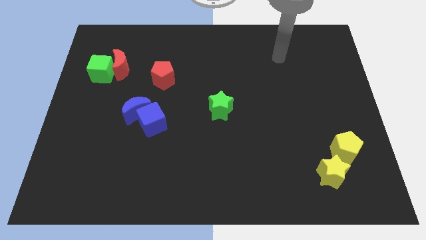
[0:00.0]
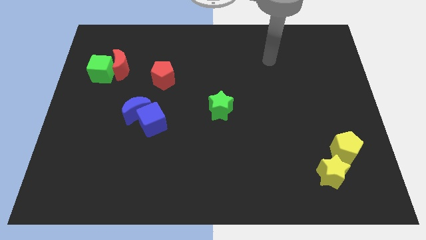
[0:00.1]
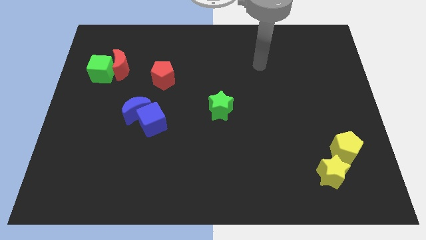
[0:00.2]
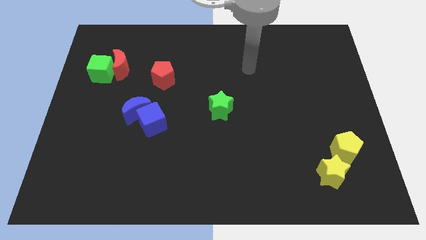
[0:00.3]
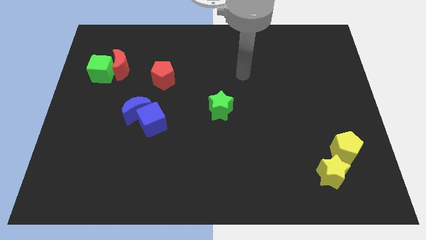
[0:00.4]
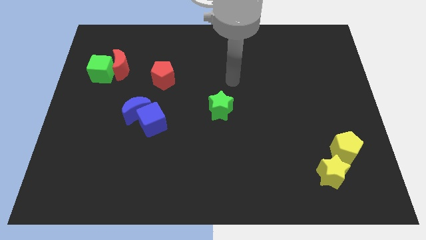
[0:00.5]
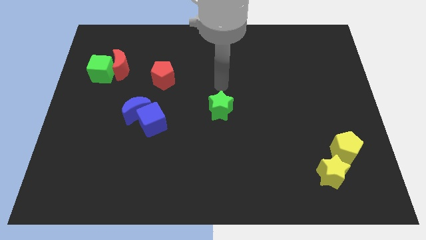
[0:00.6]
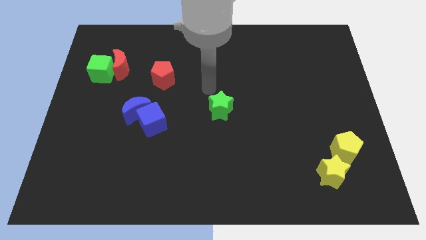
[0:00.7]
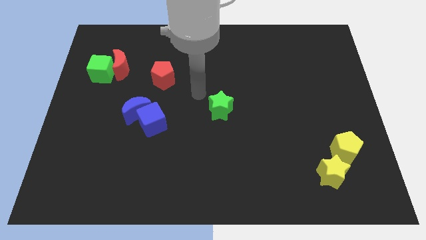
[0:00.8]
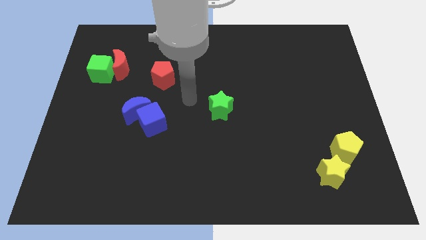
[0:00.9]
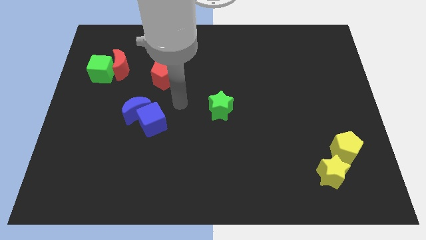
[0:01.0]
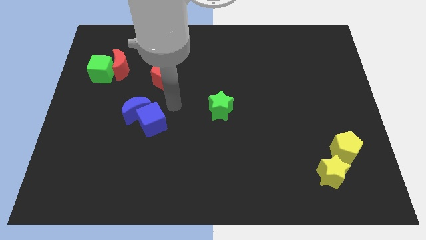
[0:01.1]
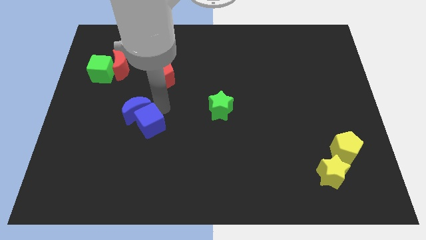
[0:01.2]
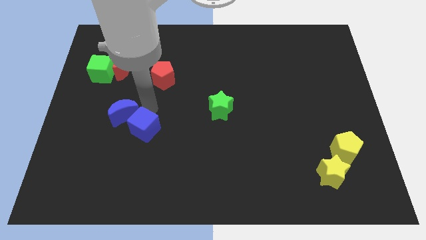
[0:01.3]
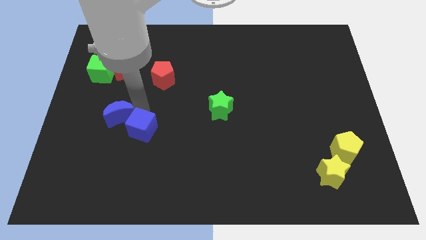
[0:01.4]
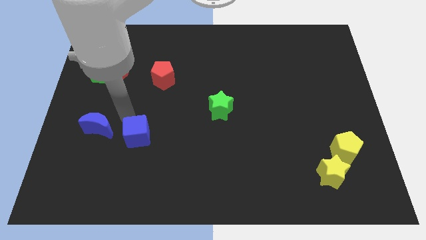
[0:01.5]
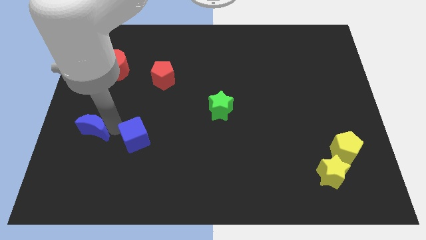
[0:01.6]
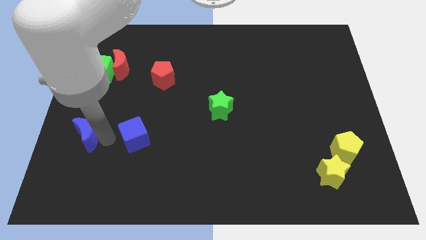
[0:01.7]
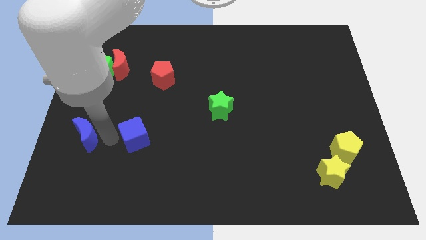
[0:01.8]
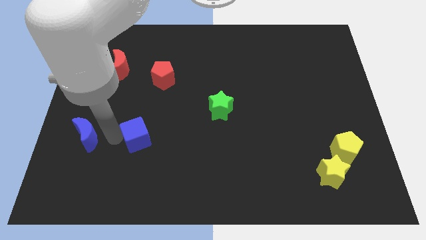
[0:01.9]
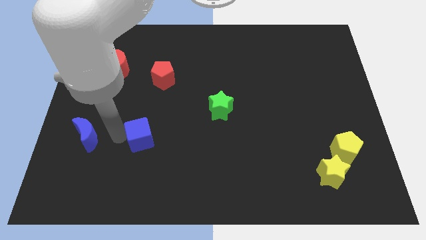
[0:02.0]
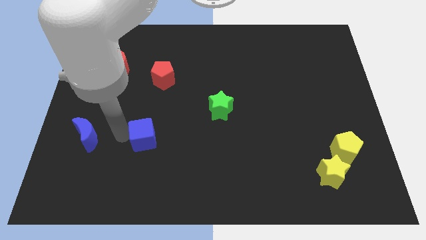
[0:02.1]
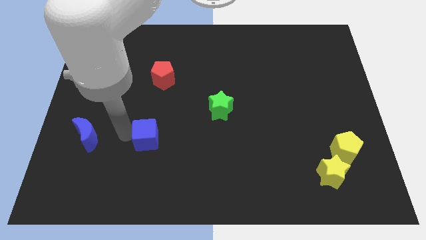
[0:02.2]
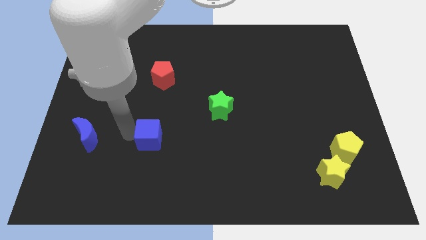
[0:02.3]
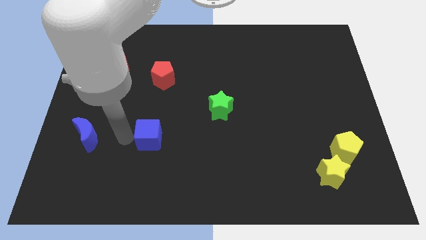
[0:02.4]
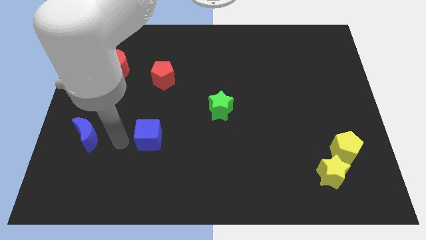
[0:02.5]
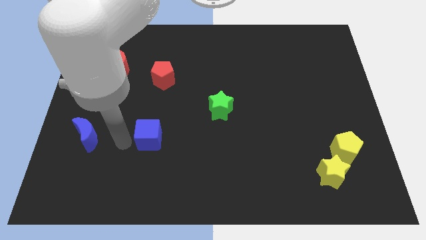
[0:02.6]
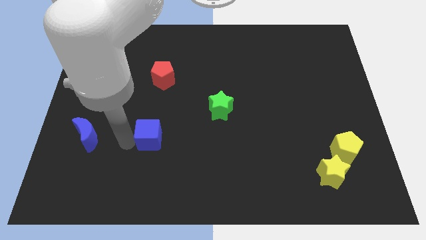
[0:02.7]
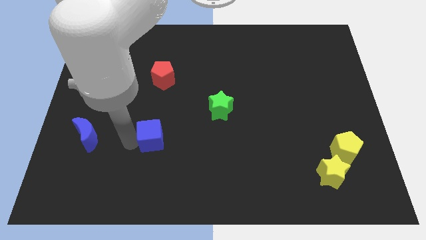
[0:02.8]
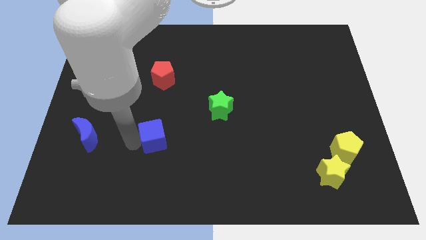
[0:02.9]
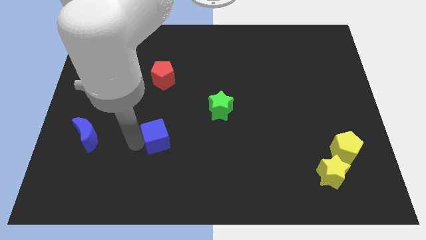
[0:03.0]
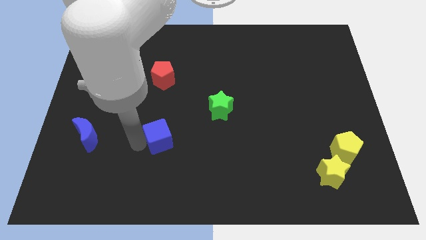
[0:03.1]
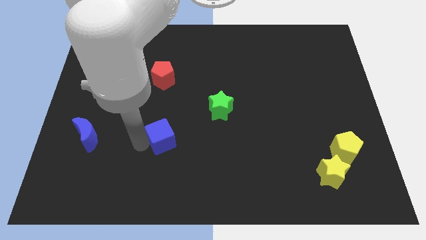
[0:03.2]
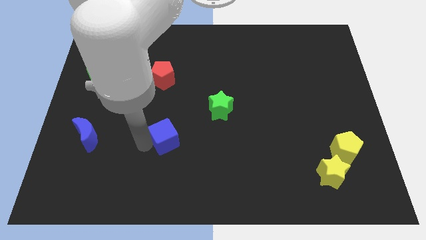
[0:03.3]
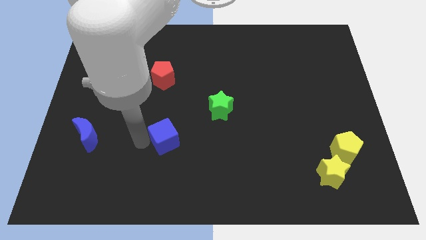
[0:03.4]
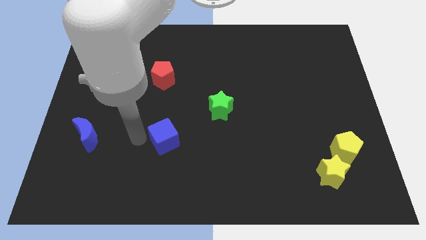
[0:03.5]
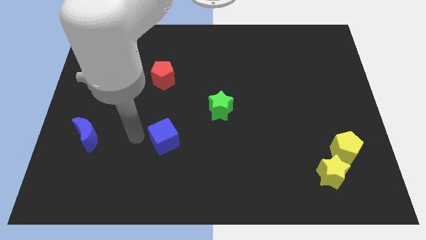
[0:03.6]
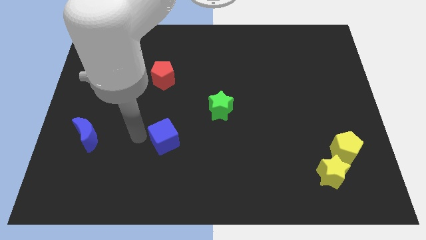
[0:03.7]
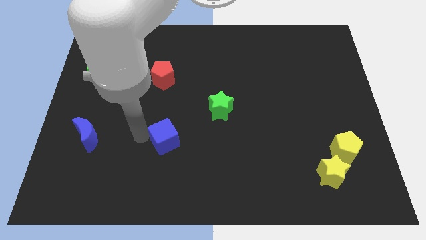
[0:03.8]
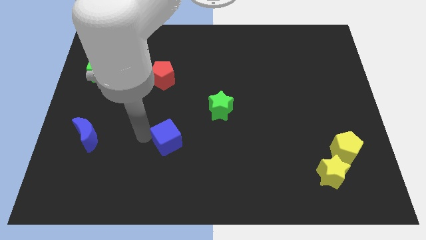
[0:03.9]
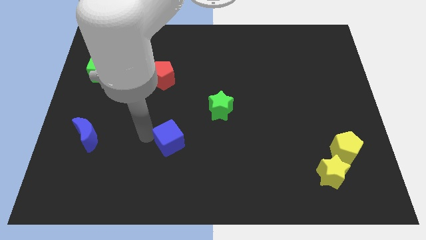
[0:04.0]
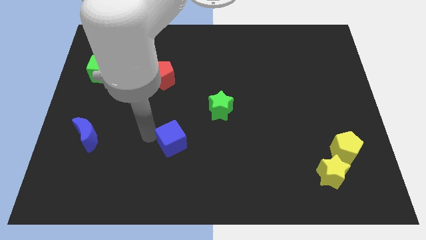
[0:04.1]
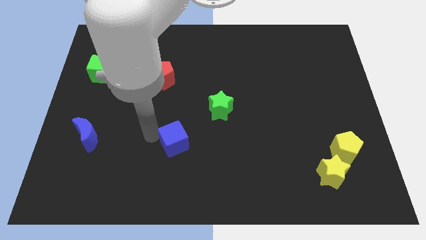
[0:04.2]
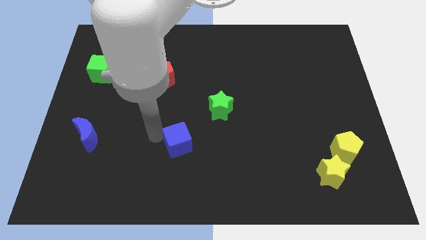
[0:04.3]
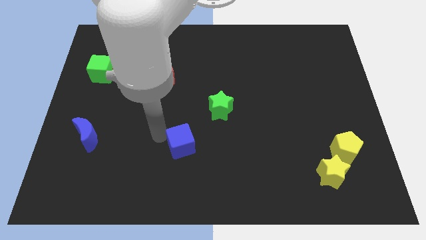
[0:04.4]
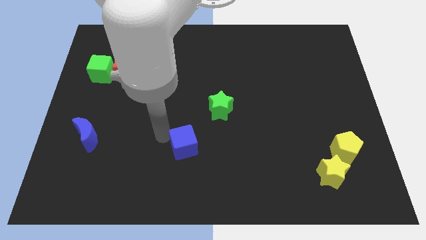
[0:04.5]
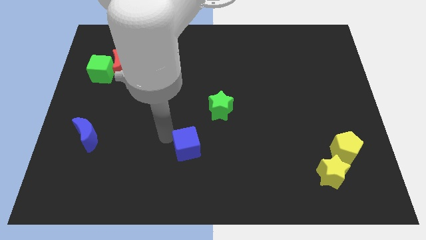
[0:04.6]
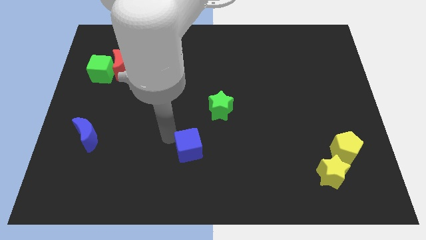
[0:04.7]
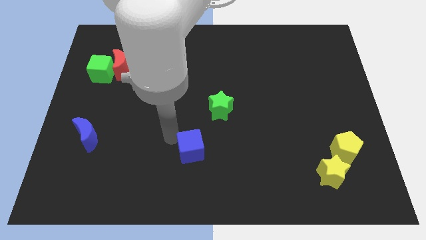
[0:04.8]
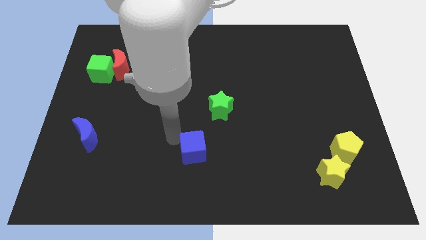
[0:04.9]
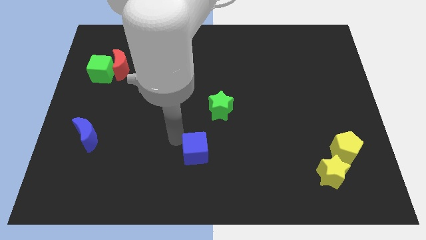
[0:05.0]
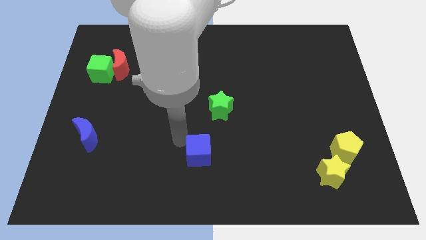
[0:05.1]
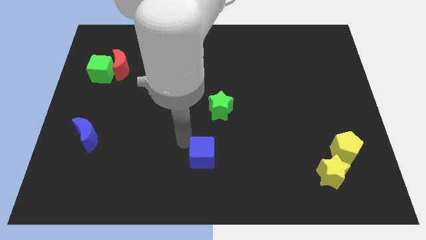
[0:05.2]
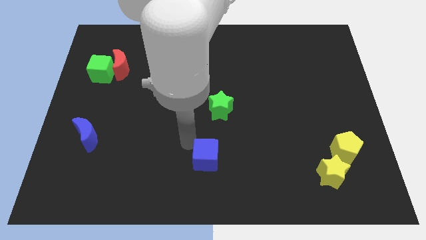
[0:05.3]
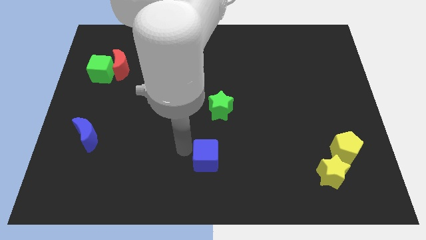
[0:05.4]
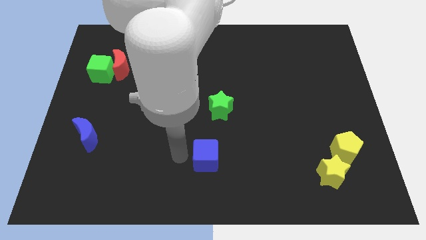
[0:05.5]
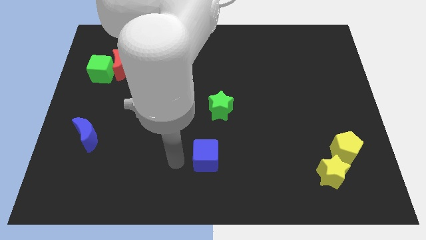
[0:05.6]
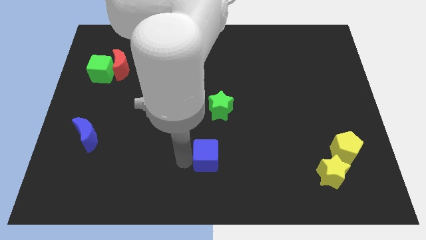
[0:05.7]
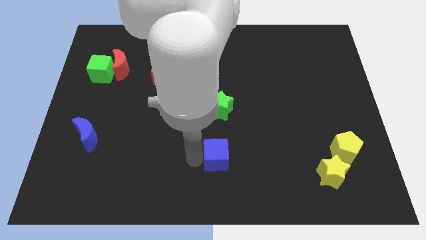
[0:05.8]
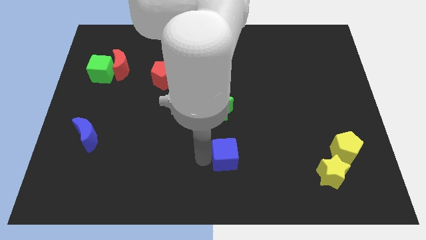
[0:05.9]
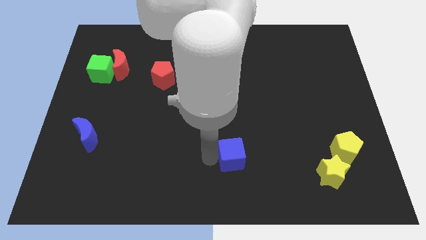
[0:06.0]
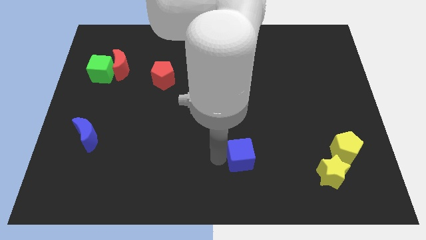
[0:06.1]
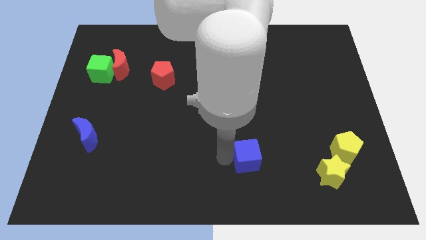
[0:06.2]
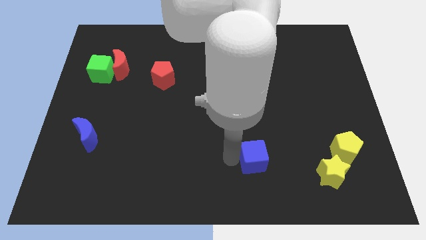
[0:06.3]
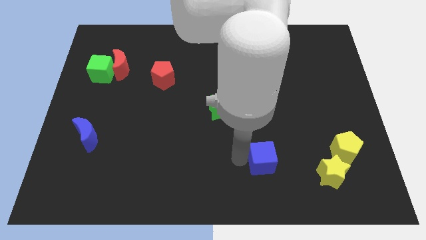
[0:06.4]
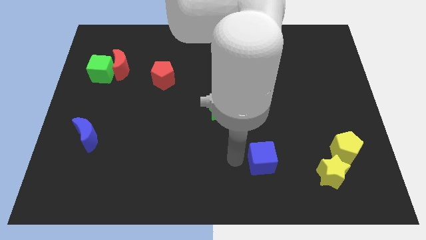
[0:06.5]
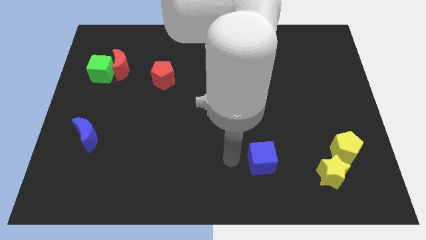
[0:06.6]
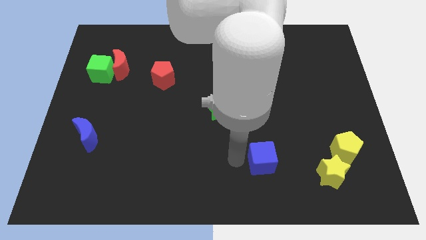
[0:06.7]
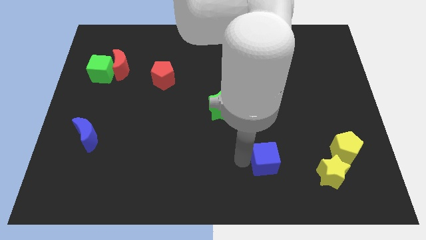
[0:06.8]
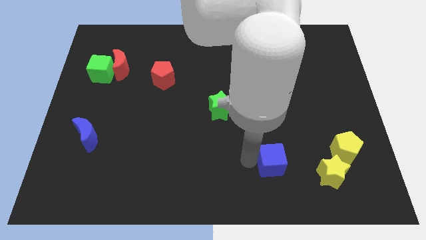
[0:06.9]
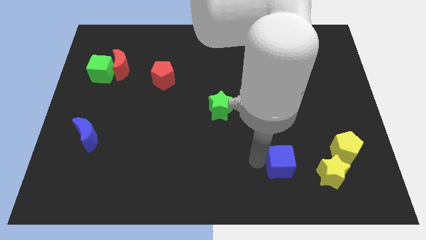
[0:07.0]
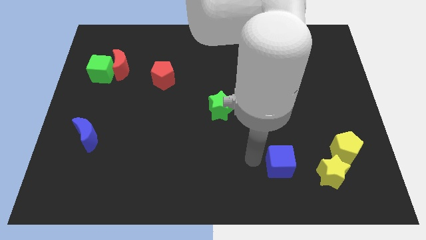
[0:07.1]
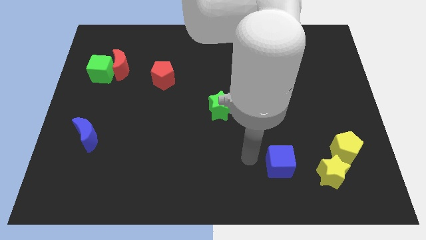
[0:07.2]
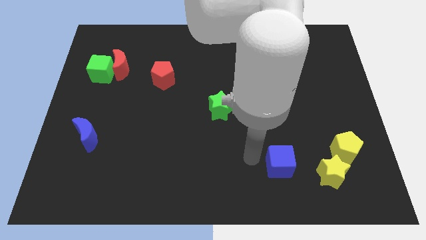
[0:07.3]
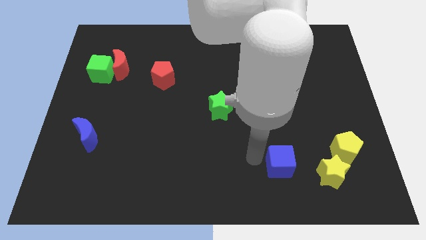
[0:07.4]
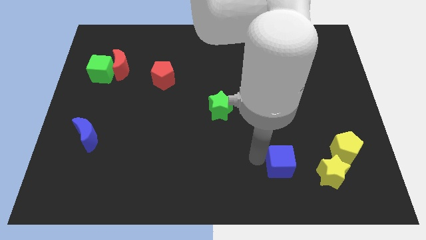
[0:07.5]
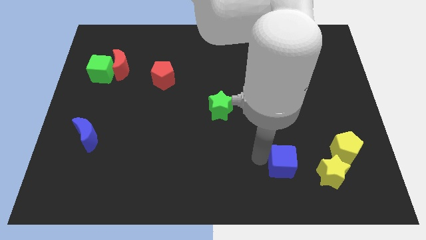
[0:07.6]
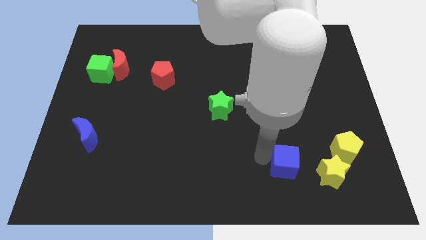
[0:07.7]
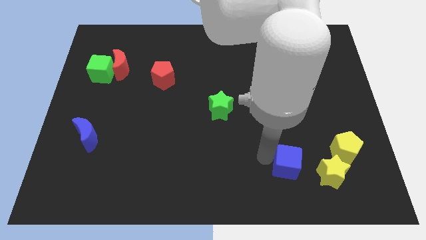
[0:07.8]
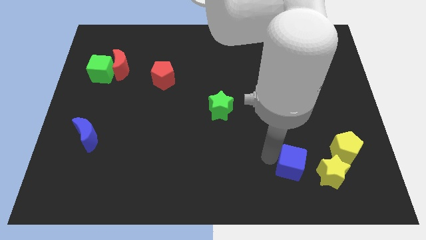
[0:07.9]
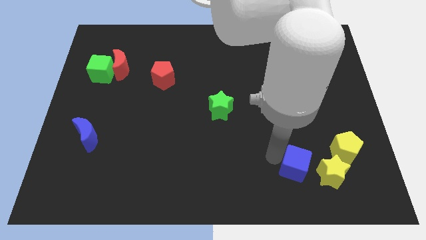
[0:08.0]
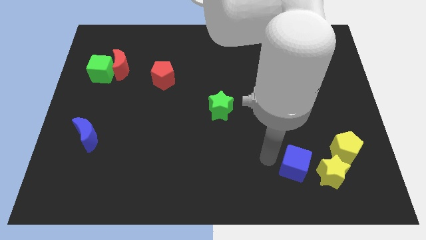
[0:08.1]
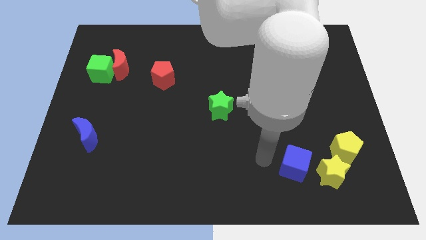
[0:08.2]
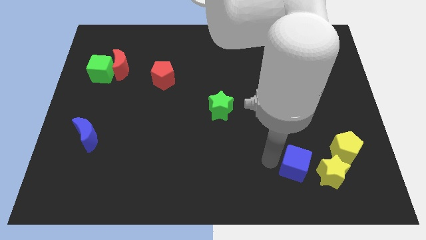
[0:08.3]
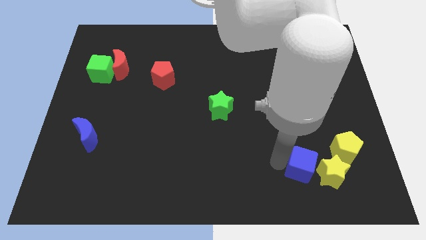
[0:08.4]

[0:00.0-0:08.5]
move the blue cube close to the yellow star
